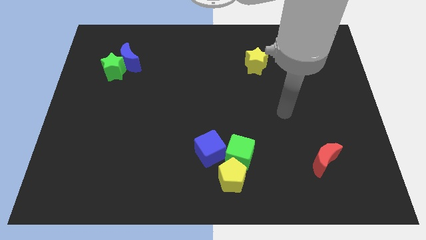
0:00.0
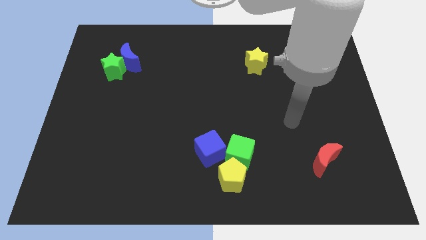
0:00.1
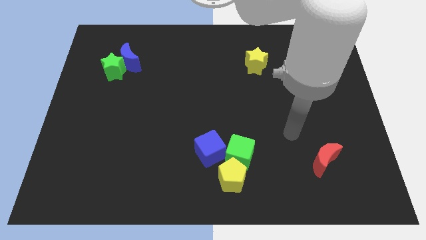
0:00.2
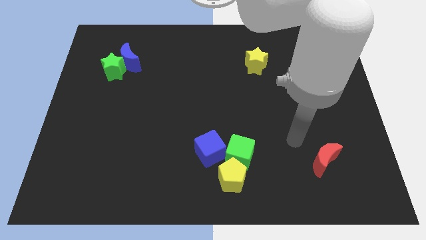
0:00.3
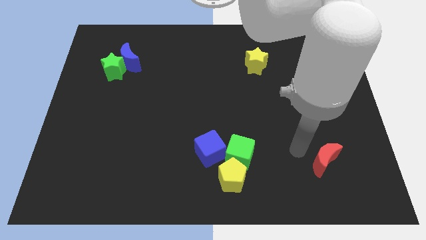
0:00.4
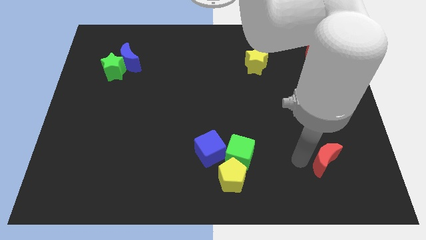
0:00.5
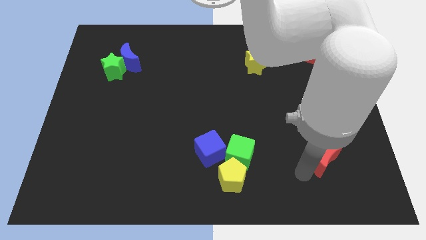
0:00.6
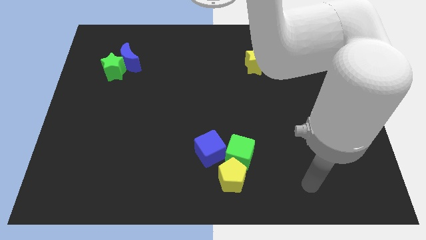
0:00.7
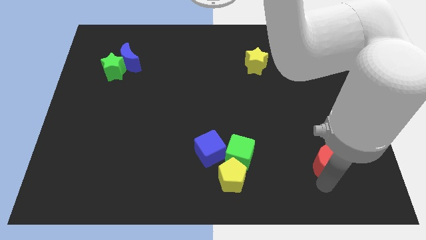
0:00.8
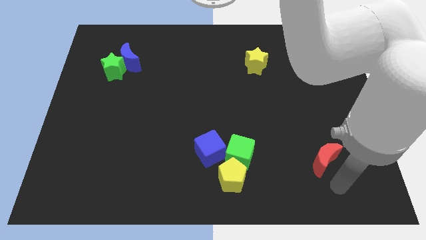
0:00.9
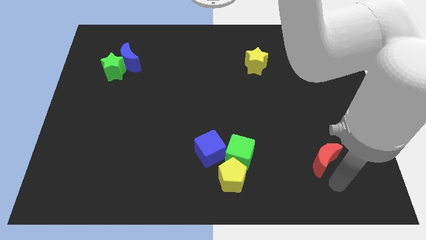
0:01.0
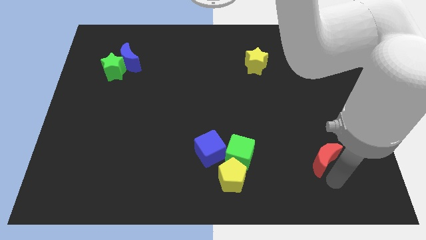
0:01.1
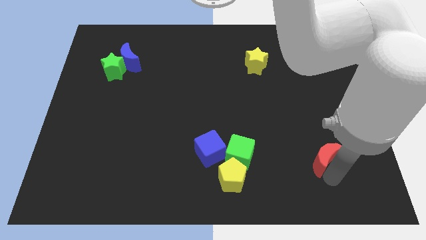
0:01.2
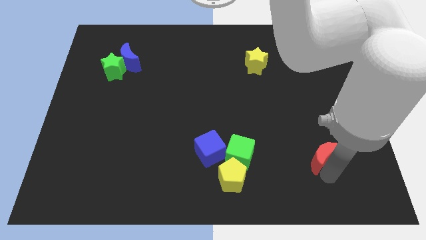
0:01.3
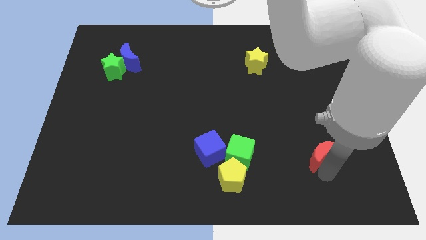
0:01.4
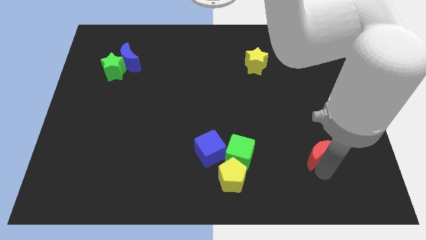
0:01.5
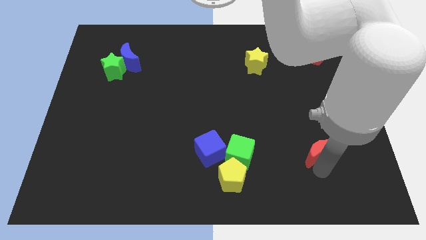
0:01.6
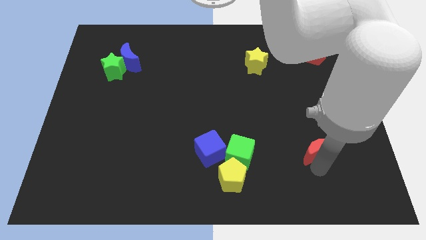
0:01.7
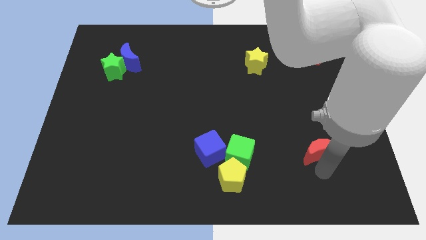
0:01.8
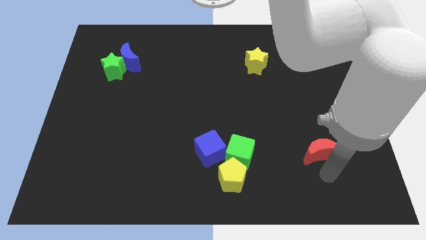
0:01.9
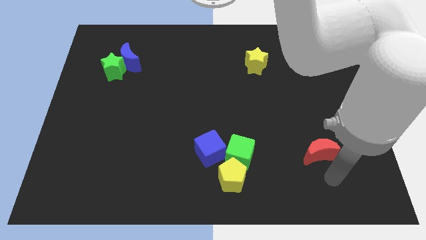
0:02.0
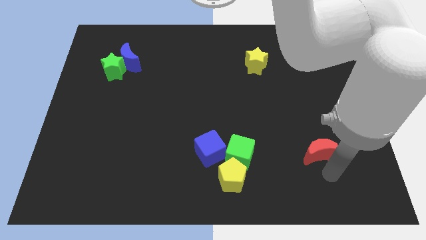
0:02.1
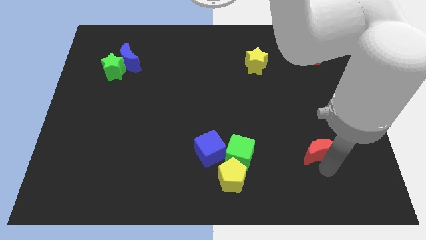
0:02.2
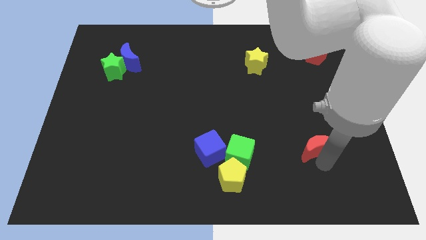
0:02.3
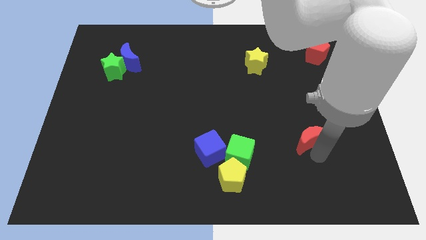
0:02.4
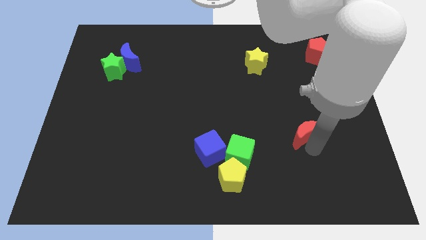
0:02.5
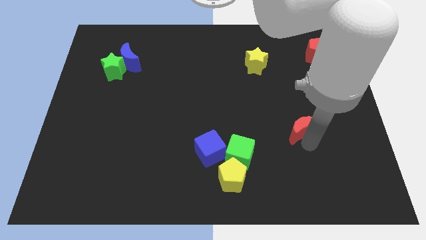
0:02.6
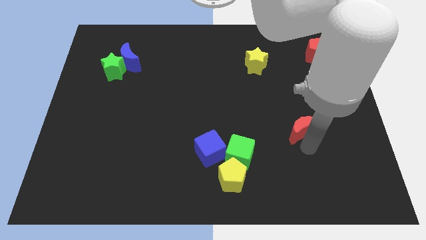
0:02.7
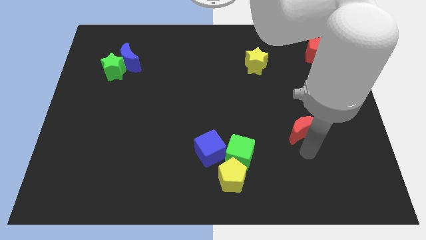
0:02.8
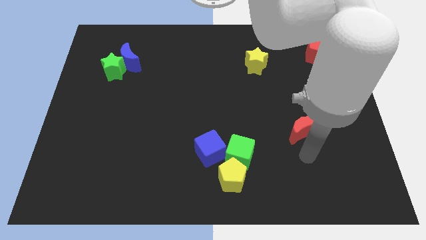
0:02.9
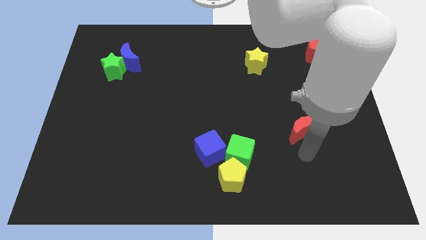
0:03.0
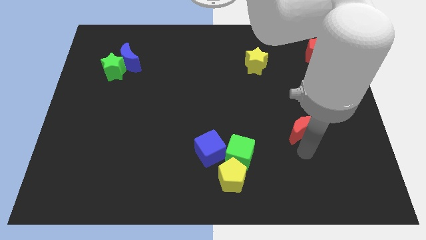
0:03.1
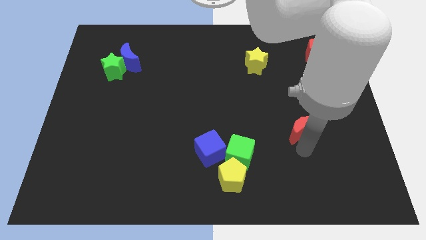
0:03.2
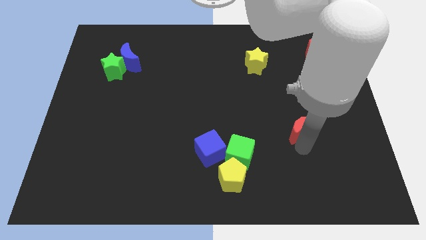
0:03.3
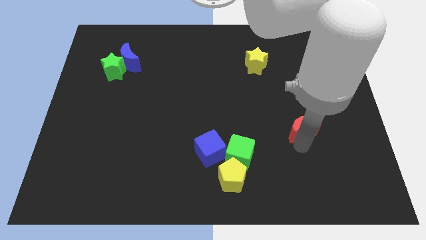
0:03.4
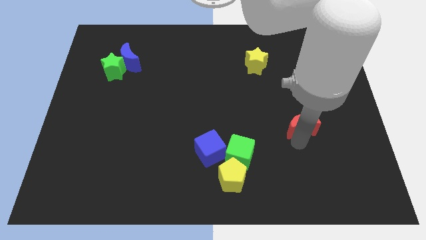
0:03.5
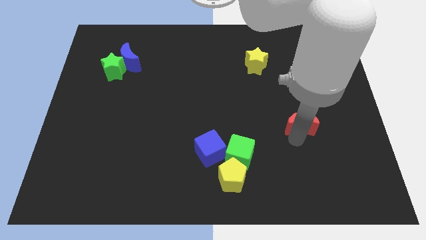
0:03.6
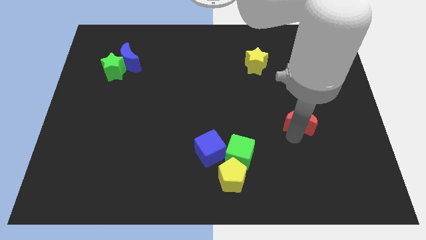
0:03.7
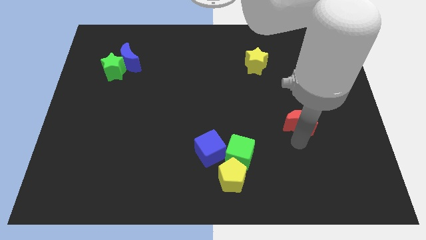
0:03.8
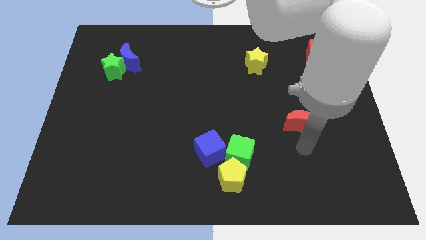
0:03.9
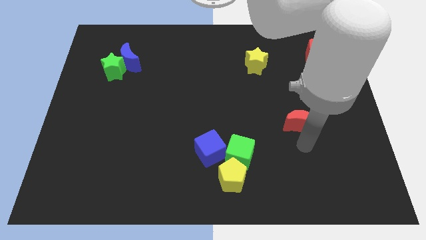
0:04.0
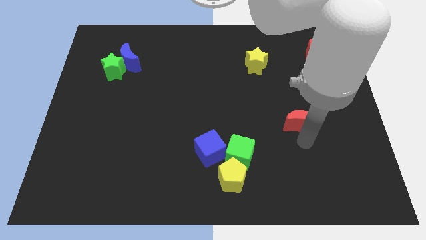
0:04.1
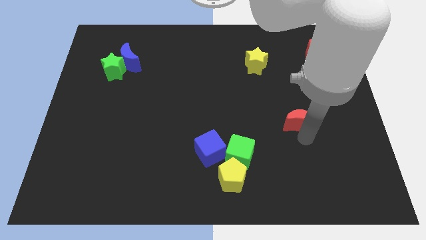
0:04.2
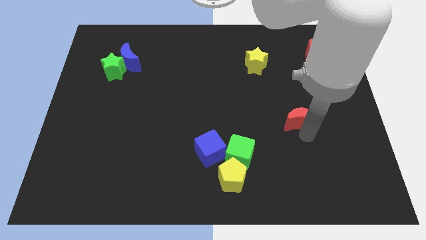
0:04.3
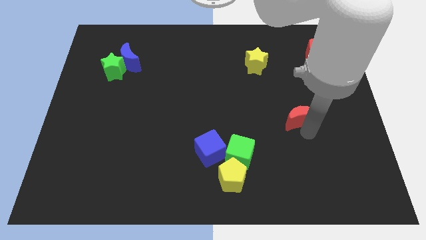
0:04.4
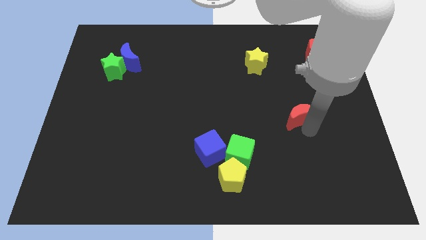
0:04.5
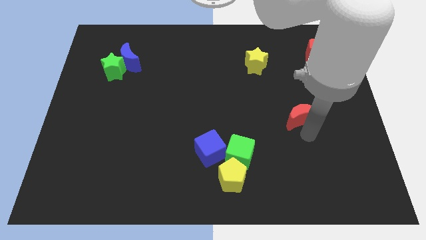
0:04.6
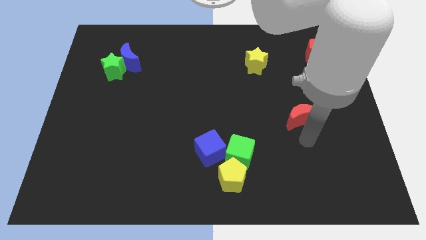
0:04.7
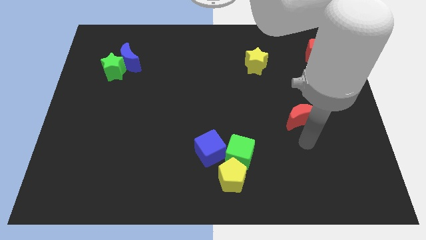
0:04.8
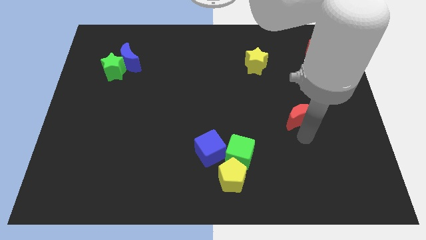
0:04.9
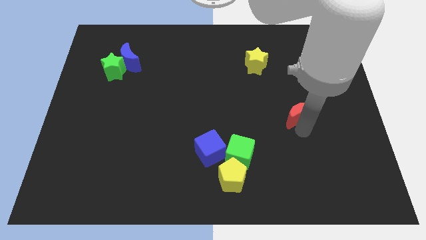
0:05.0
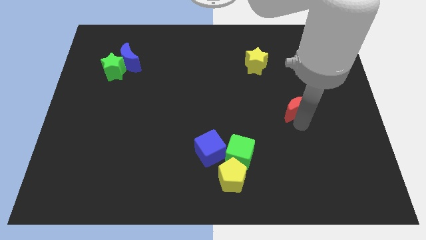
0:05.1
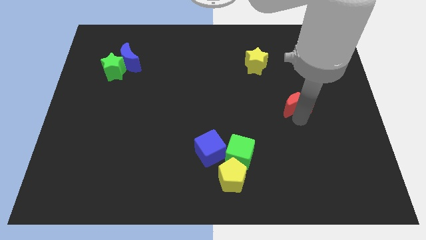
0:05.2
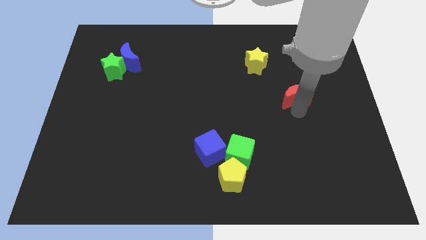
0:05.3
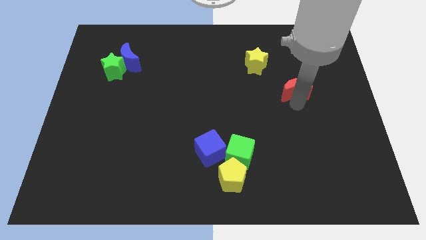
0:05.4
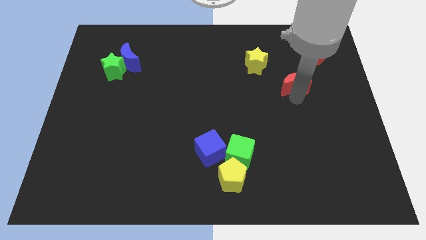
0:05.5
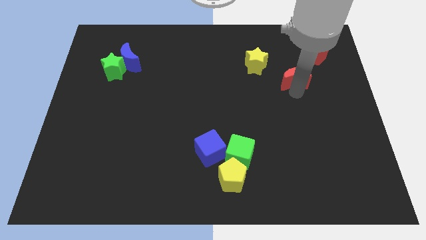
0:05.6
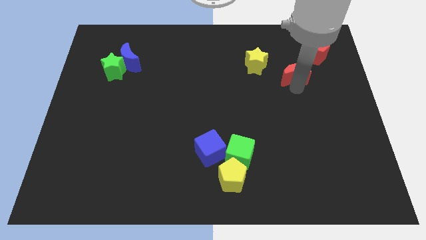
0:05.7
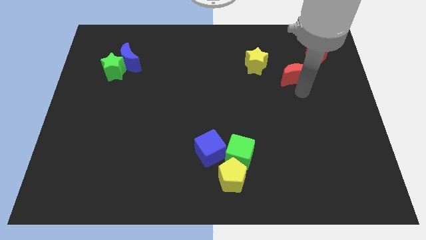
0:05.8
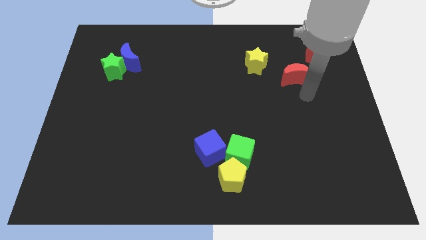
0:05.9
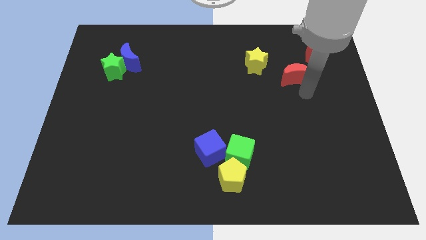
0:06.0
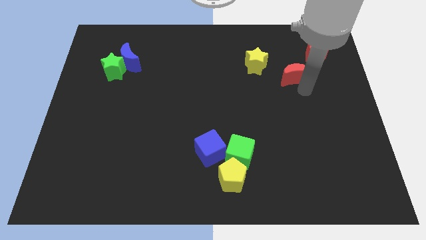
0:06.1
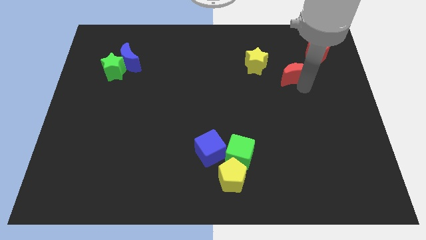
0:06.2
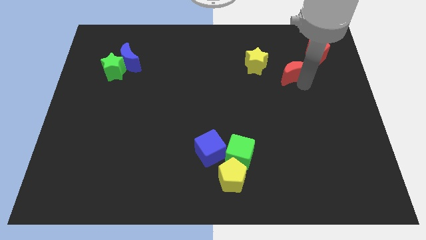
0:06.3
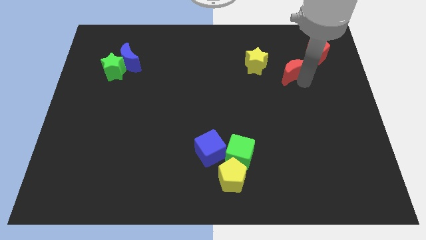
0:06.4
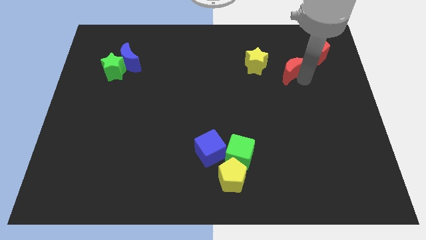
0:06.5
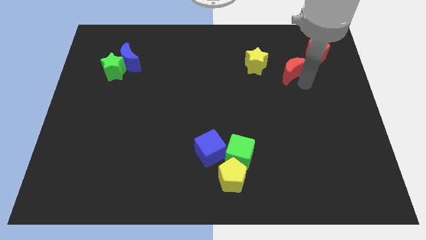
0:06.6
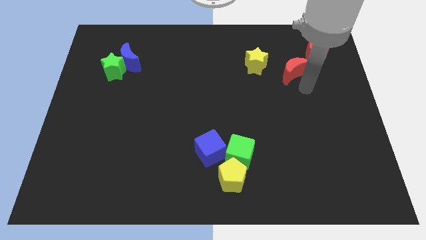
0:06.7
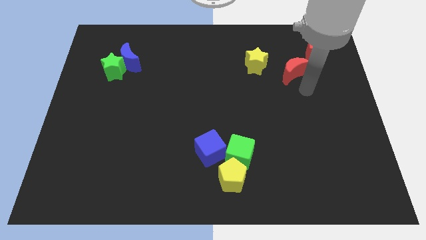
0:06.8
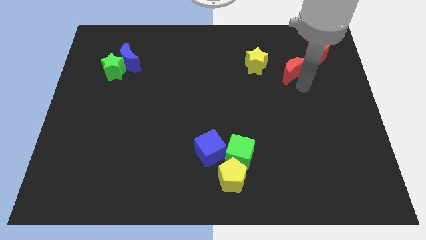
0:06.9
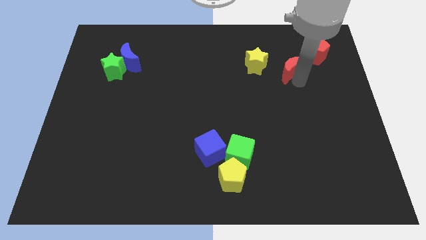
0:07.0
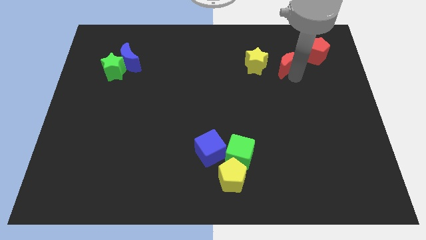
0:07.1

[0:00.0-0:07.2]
push the red moon to the left side of the red pentagon

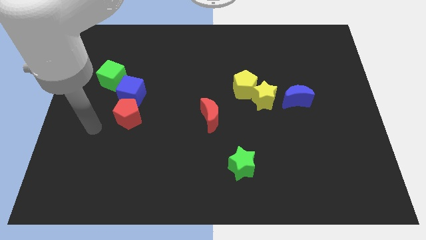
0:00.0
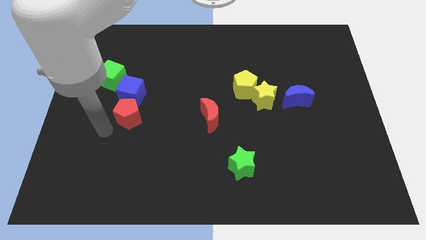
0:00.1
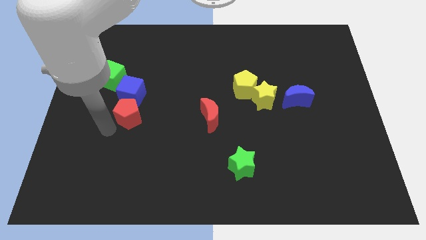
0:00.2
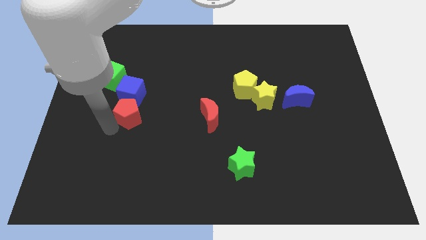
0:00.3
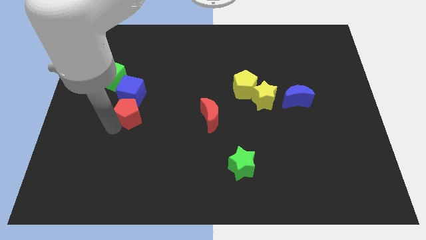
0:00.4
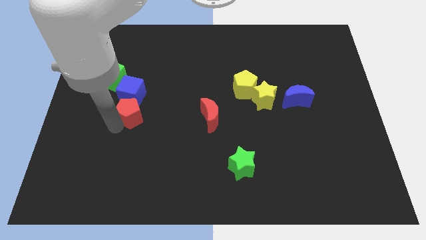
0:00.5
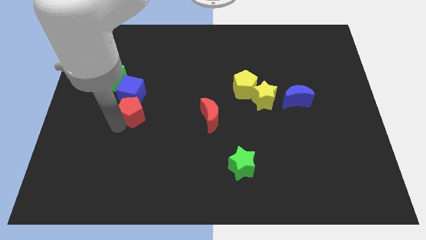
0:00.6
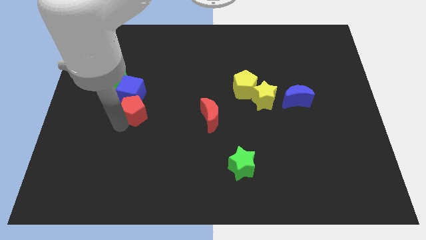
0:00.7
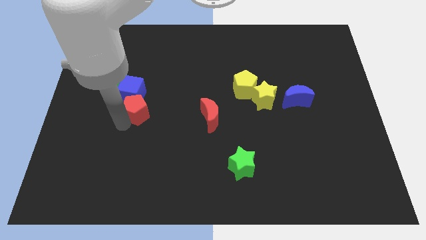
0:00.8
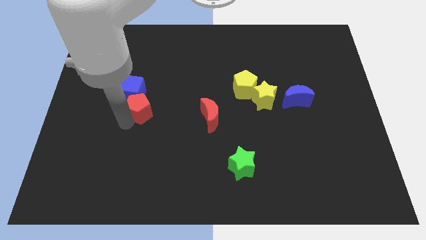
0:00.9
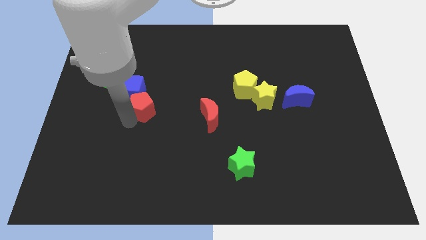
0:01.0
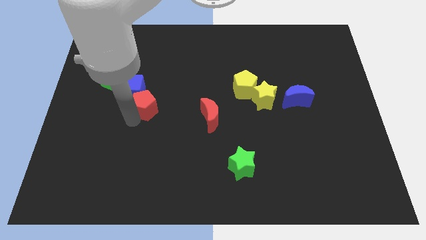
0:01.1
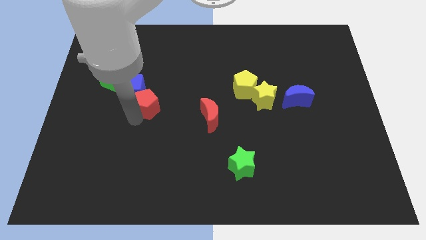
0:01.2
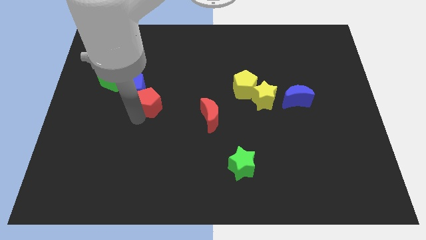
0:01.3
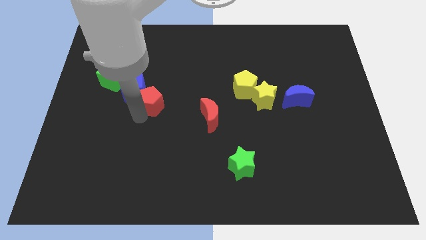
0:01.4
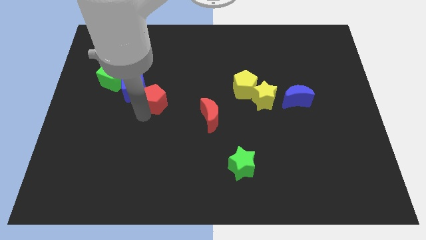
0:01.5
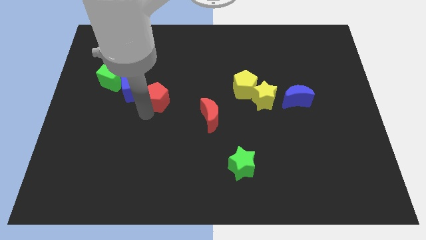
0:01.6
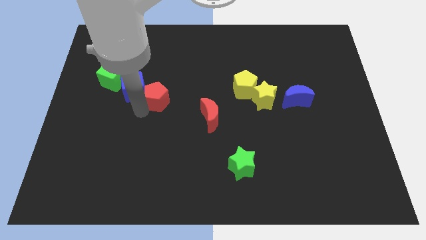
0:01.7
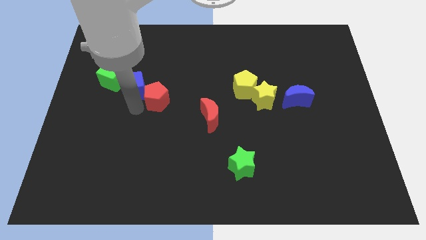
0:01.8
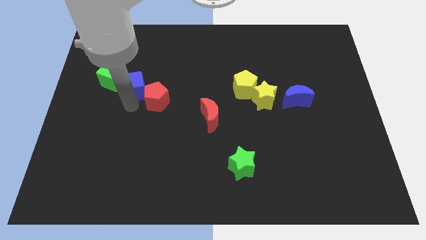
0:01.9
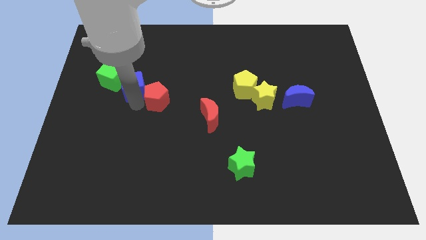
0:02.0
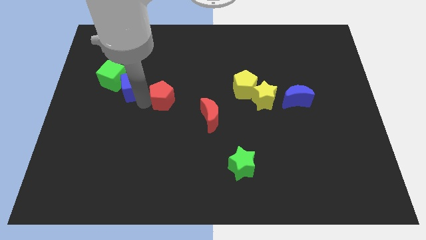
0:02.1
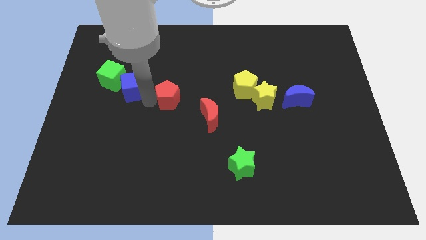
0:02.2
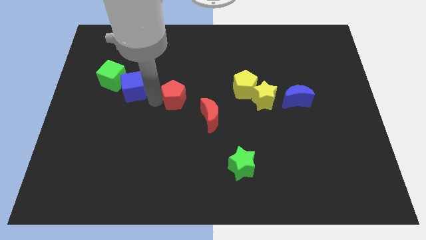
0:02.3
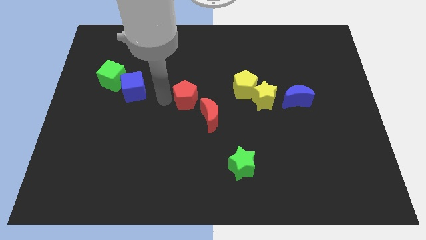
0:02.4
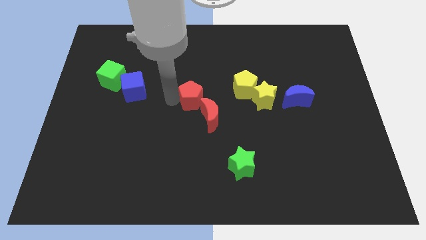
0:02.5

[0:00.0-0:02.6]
move the red pentagon to the top side of the red moon
